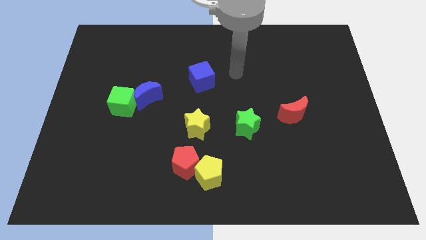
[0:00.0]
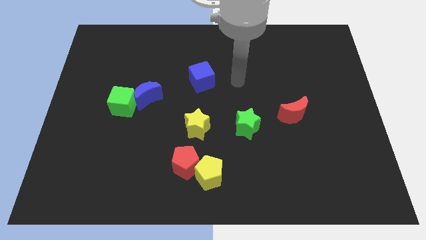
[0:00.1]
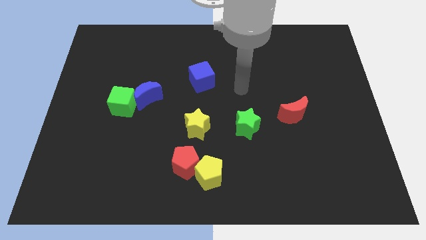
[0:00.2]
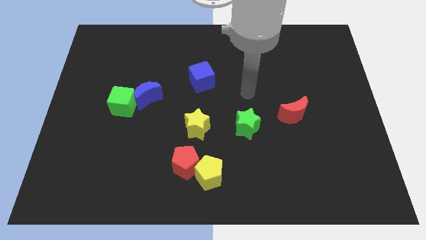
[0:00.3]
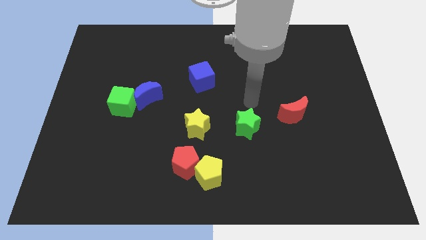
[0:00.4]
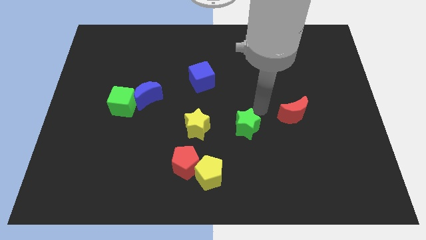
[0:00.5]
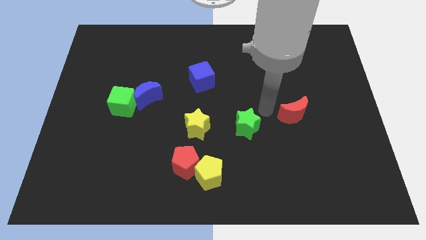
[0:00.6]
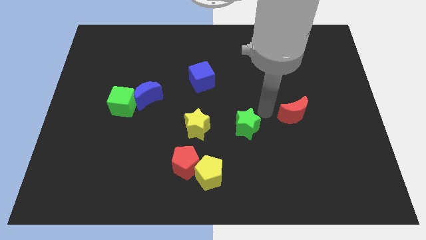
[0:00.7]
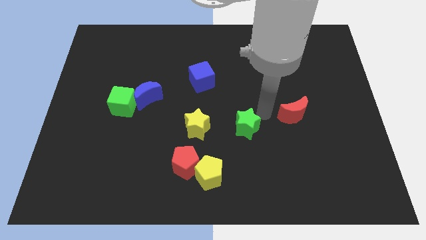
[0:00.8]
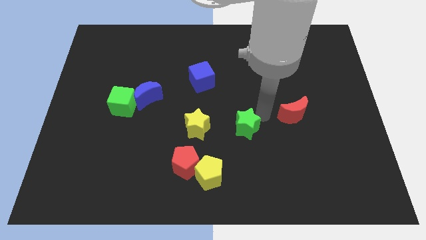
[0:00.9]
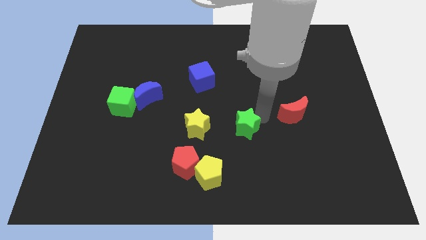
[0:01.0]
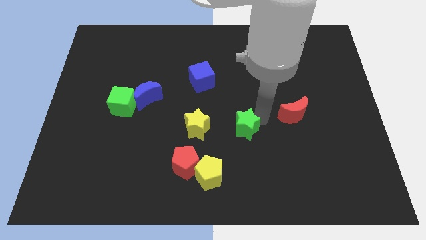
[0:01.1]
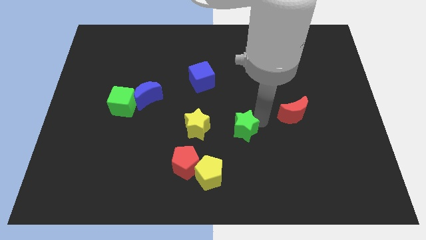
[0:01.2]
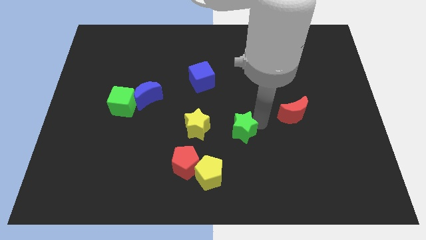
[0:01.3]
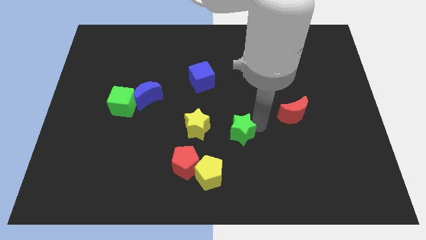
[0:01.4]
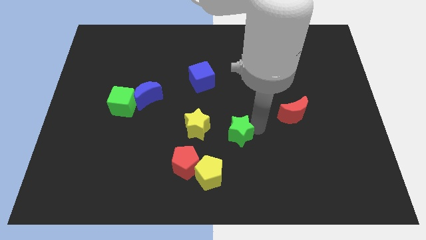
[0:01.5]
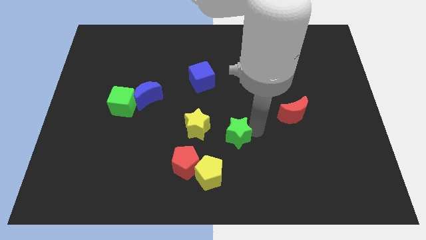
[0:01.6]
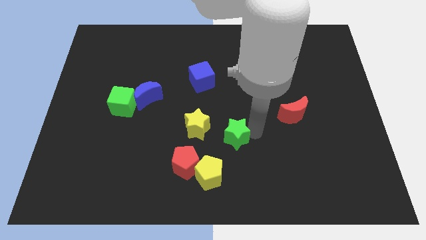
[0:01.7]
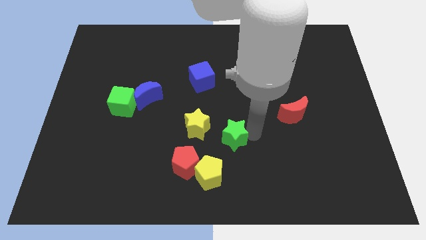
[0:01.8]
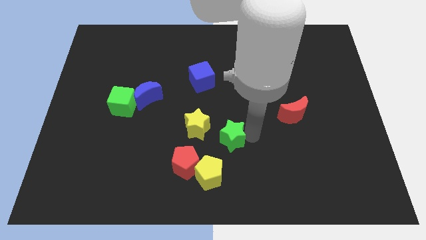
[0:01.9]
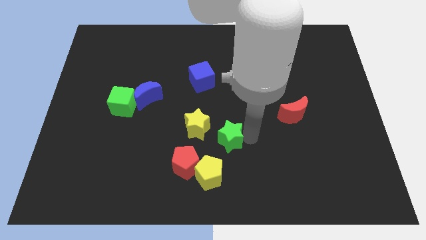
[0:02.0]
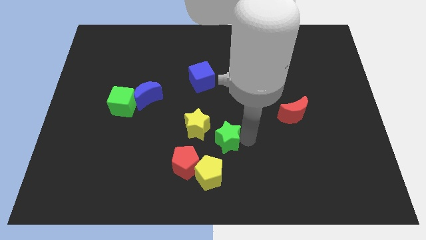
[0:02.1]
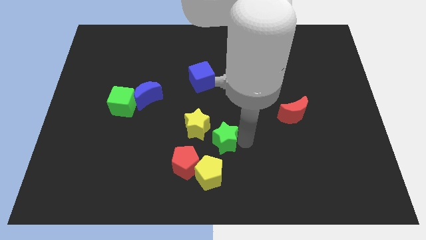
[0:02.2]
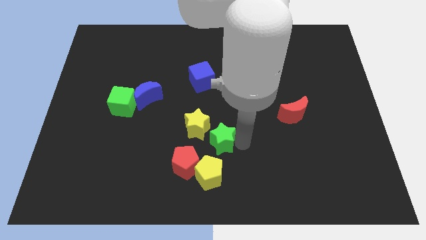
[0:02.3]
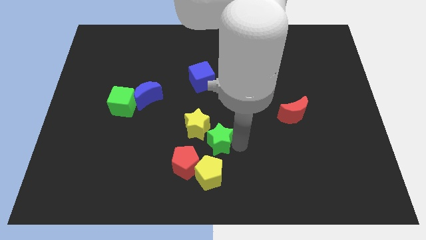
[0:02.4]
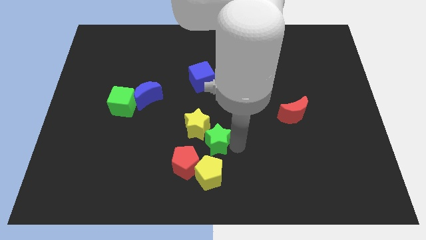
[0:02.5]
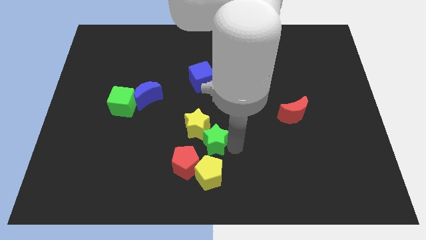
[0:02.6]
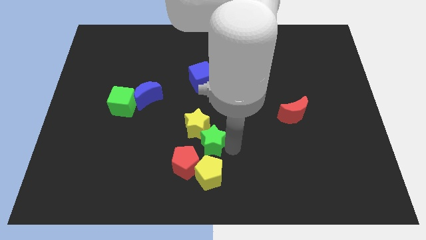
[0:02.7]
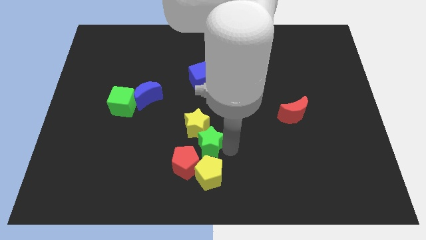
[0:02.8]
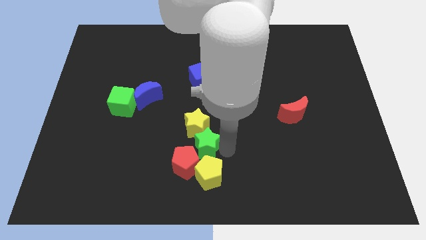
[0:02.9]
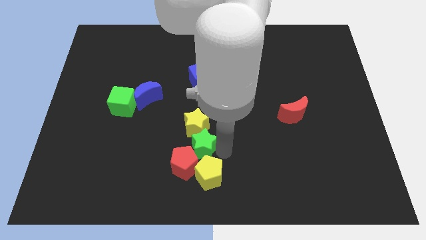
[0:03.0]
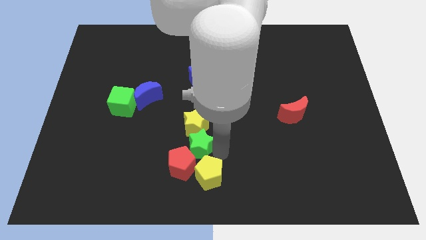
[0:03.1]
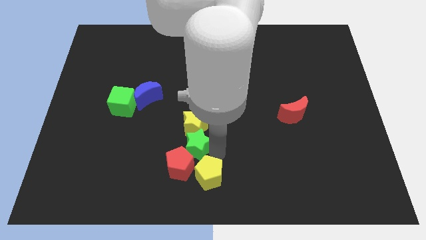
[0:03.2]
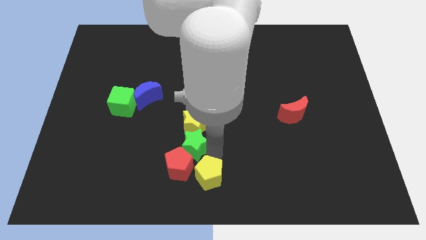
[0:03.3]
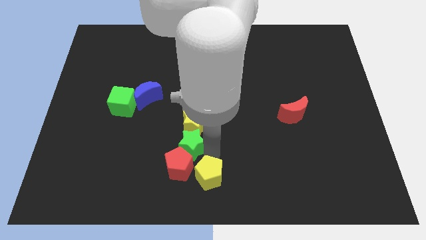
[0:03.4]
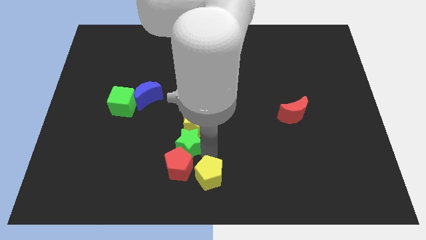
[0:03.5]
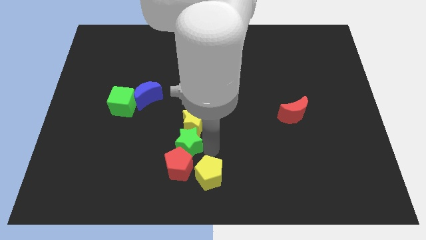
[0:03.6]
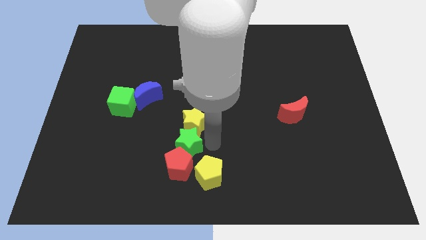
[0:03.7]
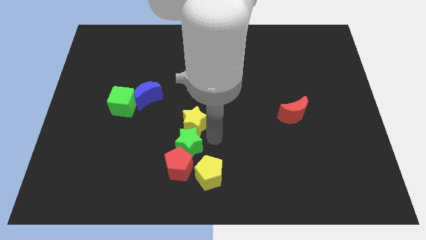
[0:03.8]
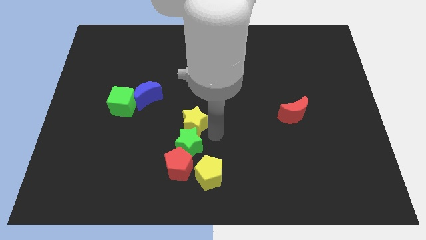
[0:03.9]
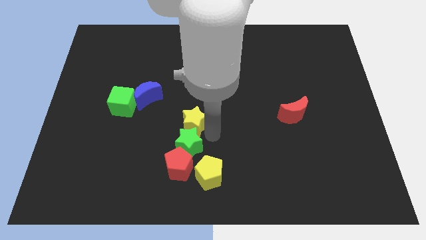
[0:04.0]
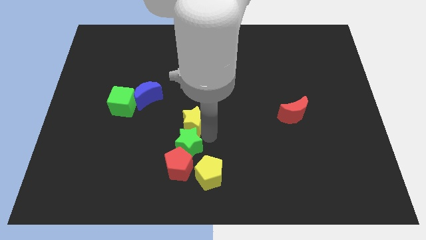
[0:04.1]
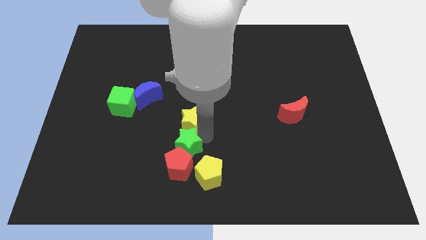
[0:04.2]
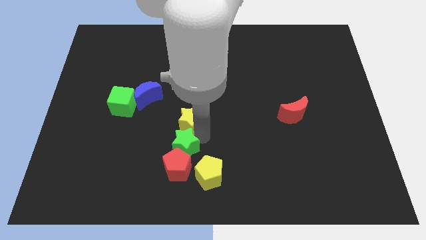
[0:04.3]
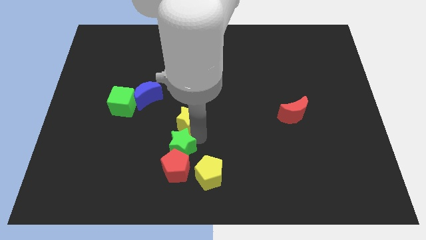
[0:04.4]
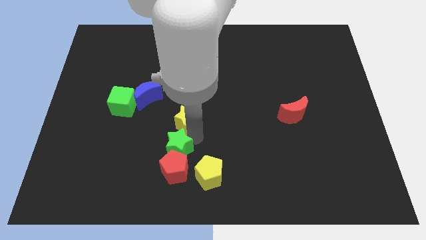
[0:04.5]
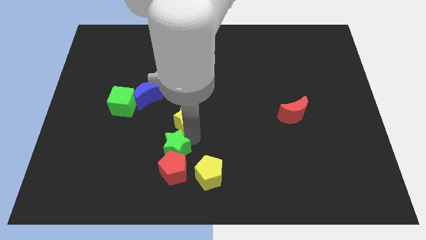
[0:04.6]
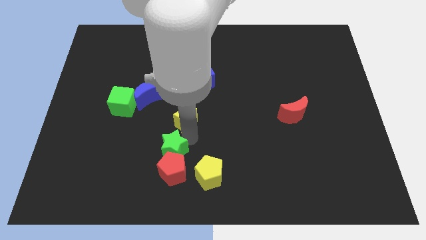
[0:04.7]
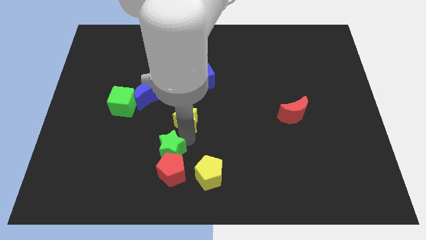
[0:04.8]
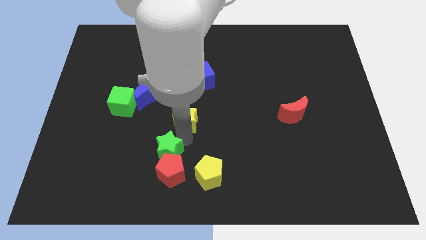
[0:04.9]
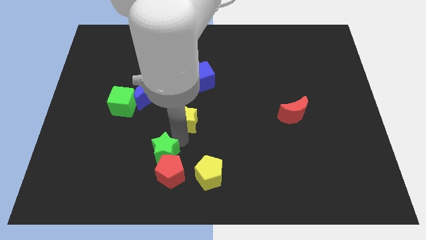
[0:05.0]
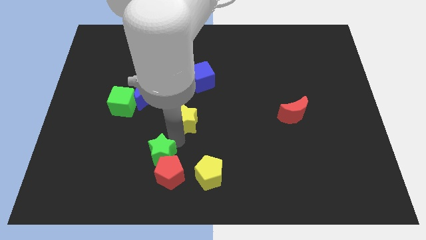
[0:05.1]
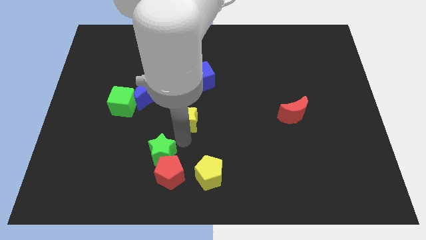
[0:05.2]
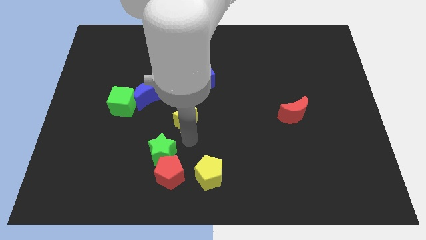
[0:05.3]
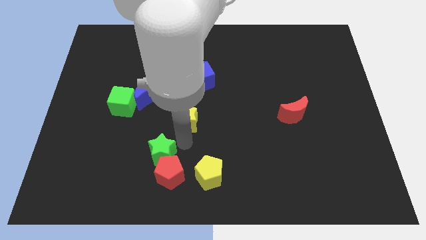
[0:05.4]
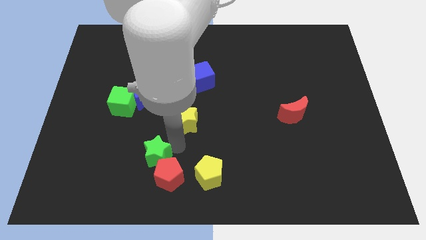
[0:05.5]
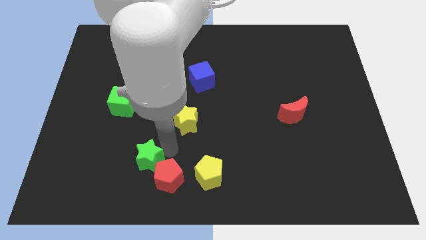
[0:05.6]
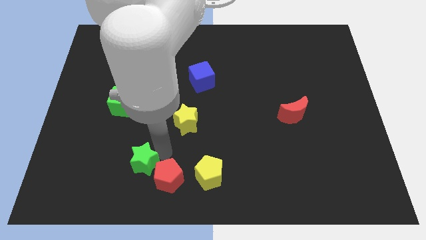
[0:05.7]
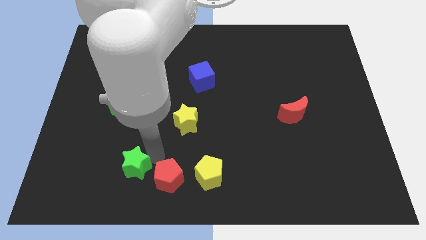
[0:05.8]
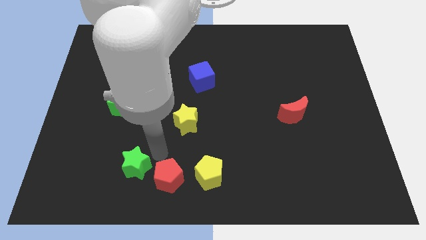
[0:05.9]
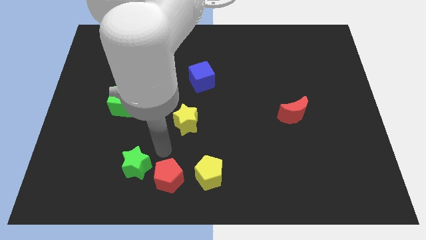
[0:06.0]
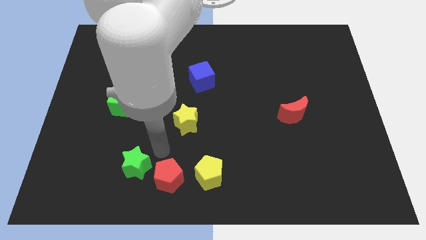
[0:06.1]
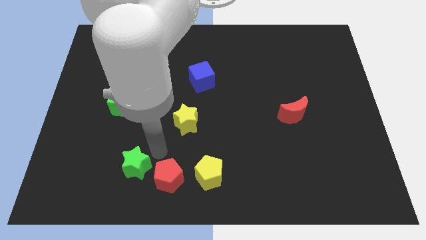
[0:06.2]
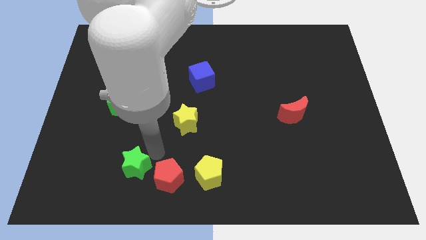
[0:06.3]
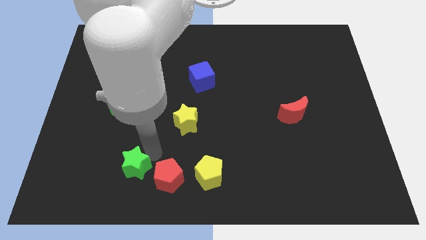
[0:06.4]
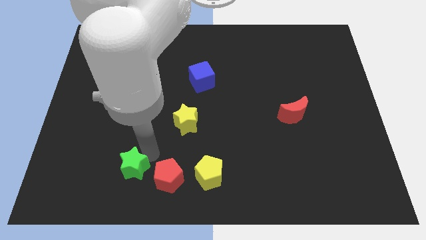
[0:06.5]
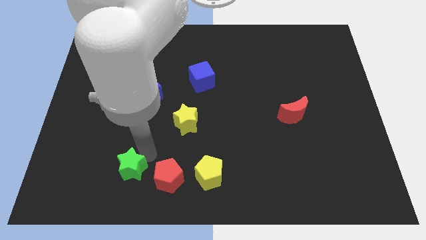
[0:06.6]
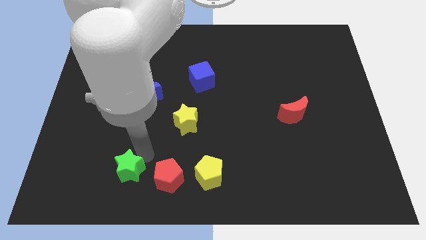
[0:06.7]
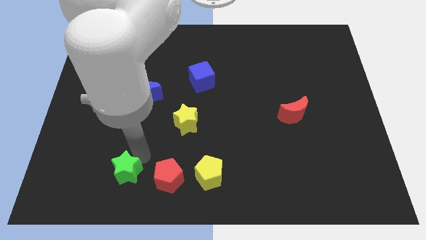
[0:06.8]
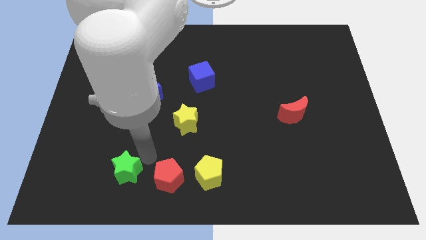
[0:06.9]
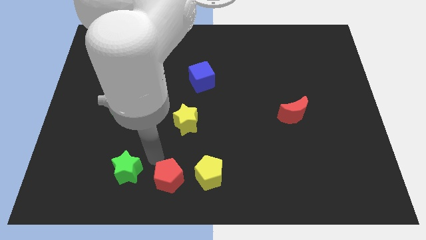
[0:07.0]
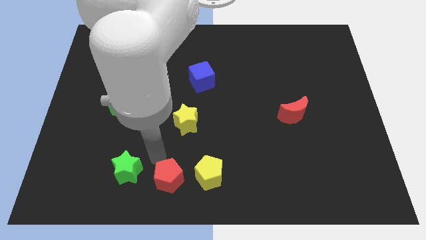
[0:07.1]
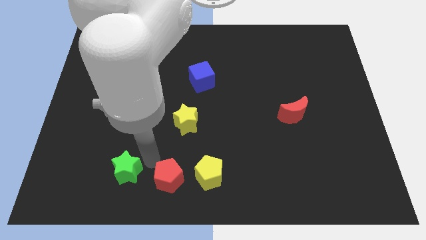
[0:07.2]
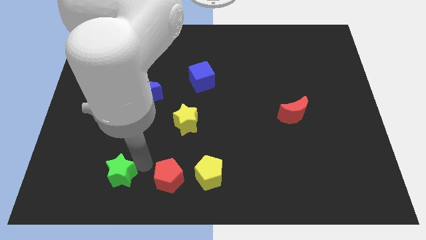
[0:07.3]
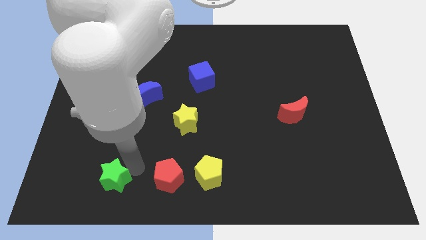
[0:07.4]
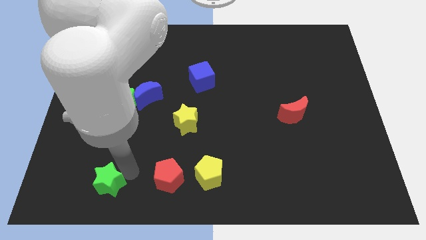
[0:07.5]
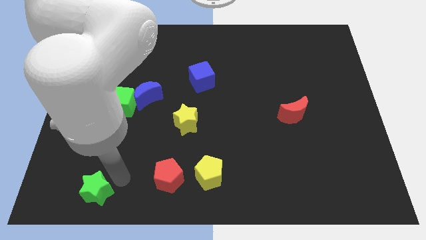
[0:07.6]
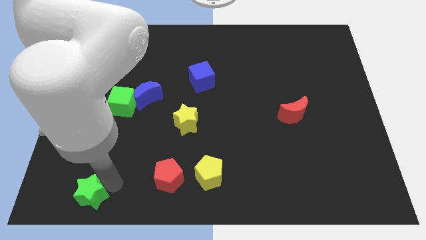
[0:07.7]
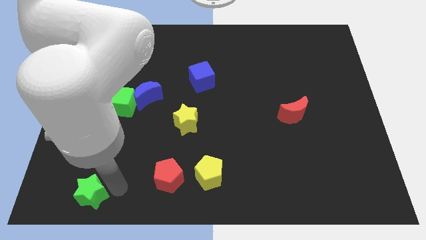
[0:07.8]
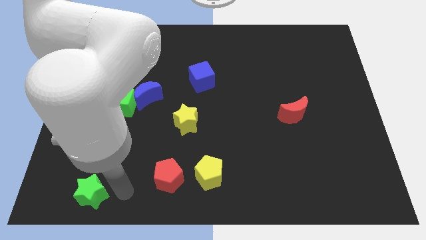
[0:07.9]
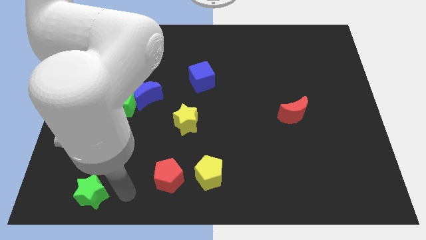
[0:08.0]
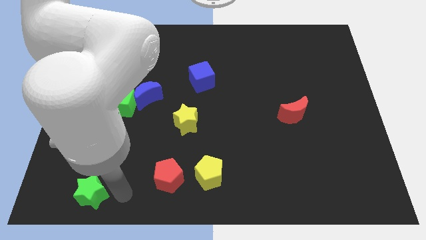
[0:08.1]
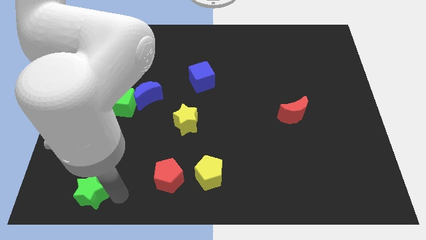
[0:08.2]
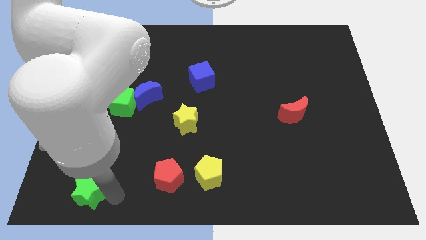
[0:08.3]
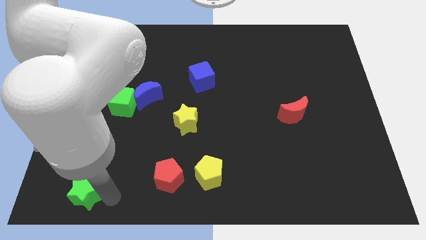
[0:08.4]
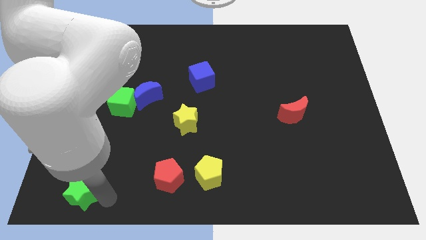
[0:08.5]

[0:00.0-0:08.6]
slide the green star to the bottom left
